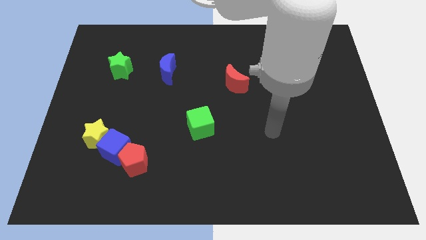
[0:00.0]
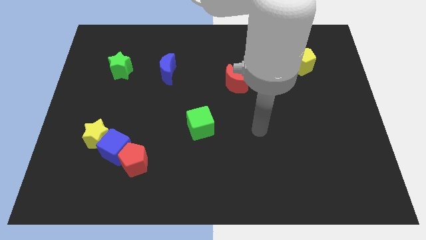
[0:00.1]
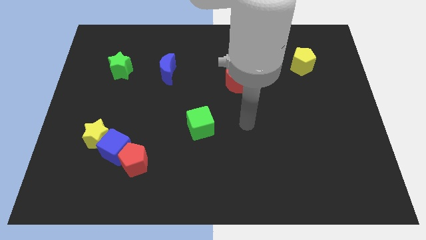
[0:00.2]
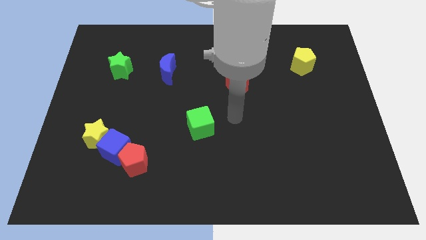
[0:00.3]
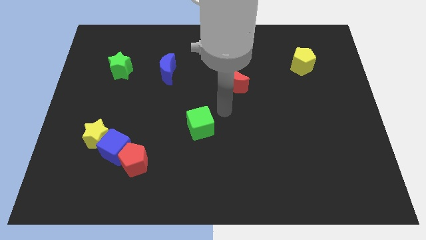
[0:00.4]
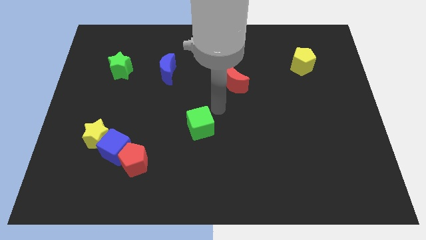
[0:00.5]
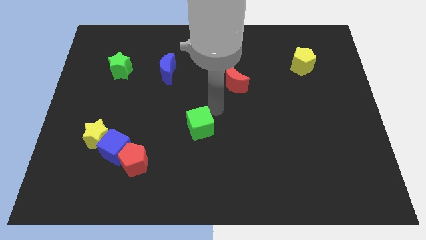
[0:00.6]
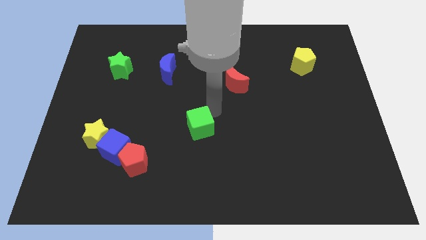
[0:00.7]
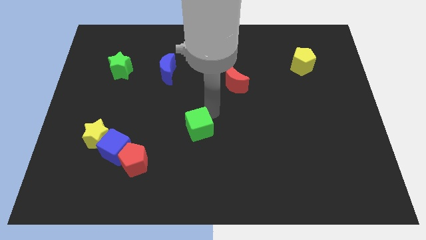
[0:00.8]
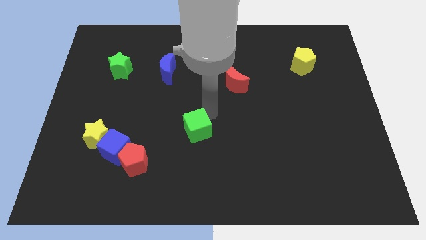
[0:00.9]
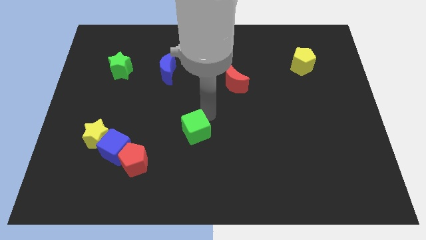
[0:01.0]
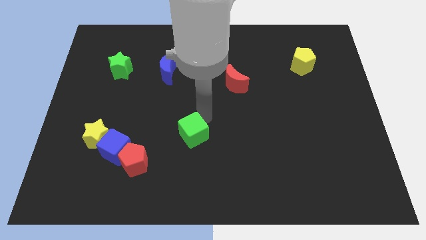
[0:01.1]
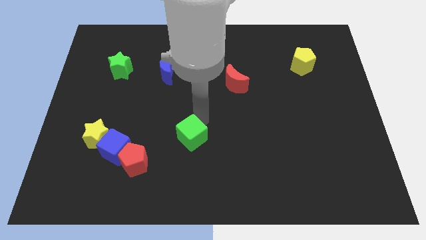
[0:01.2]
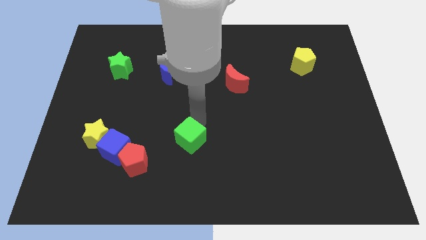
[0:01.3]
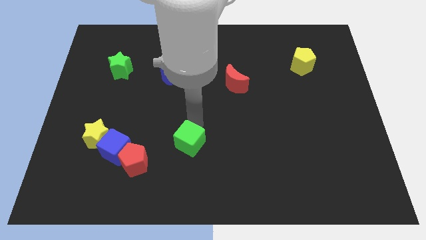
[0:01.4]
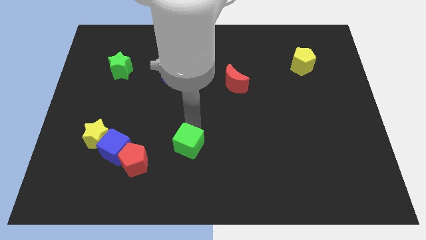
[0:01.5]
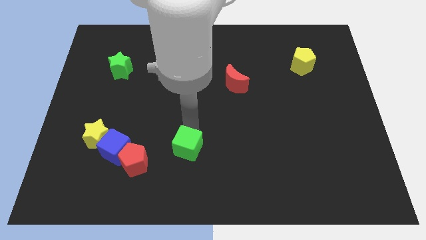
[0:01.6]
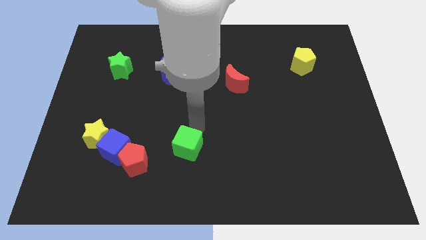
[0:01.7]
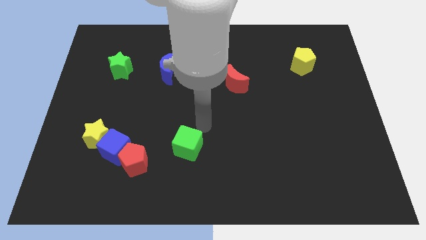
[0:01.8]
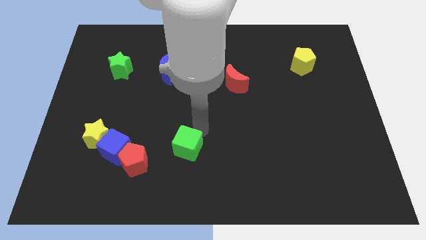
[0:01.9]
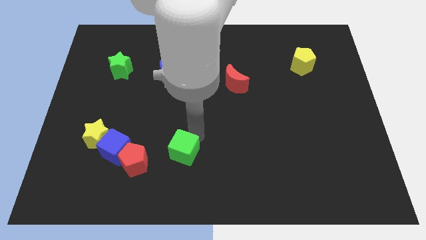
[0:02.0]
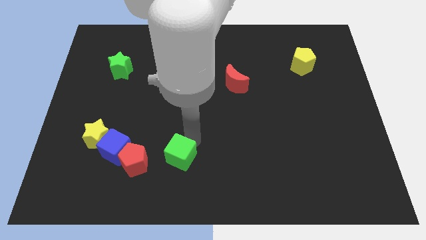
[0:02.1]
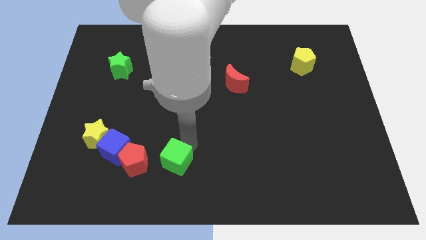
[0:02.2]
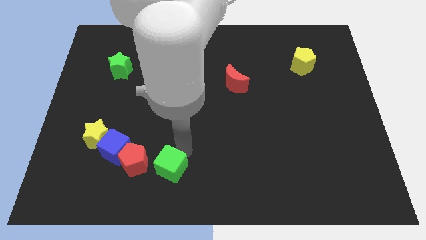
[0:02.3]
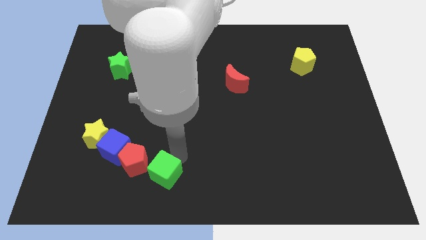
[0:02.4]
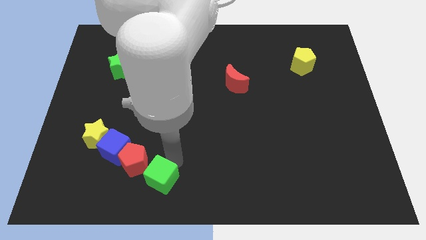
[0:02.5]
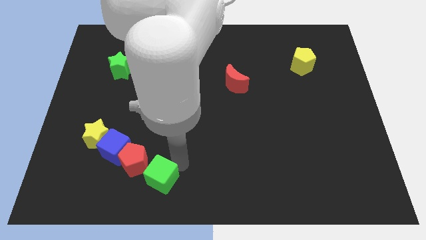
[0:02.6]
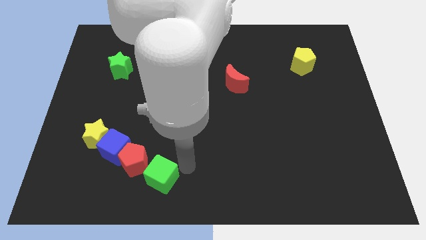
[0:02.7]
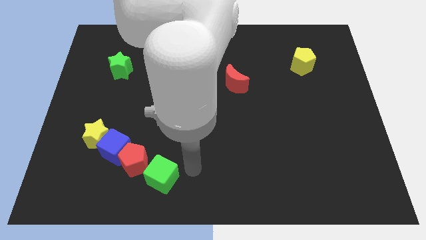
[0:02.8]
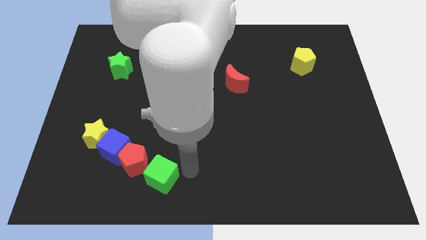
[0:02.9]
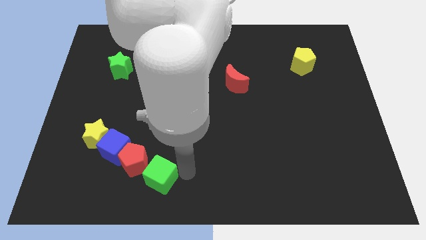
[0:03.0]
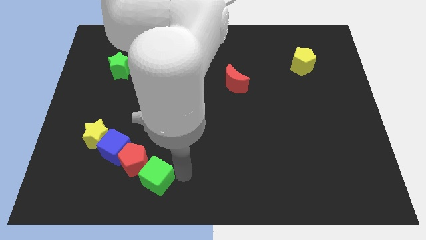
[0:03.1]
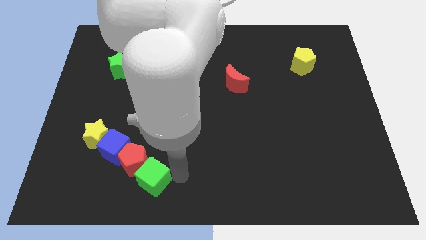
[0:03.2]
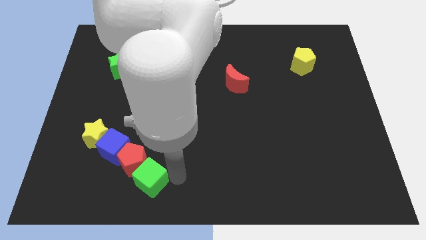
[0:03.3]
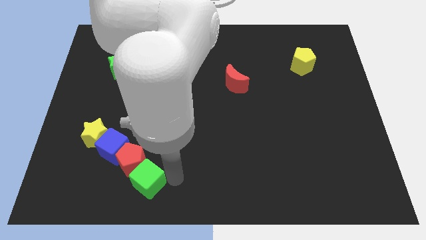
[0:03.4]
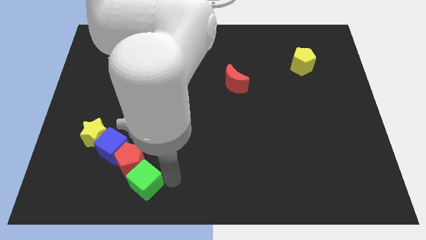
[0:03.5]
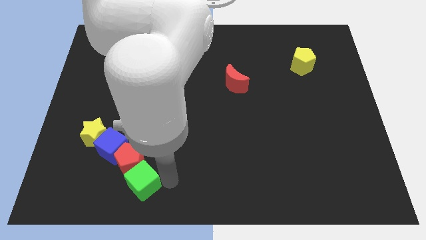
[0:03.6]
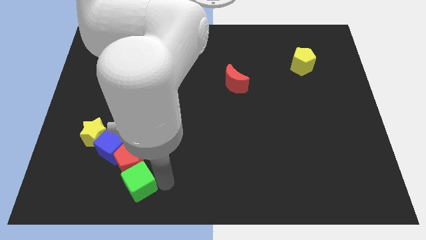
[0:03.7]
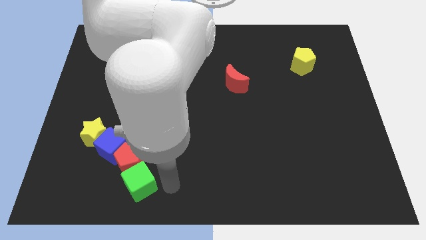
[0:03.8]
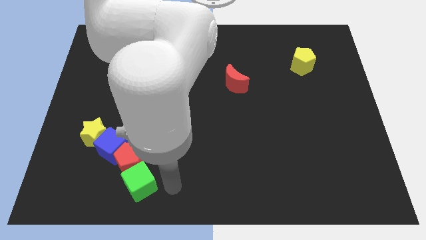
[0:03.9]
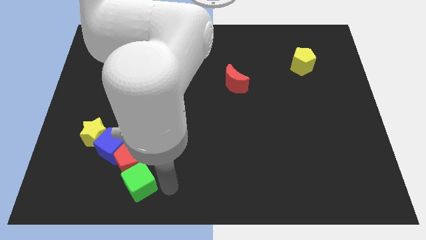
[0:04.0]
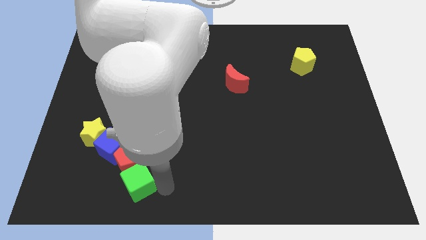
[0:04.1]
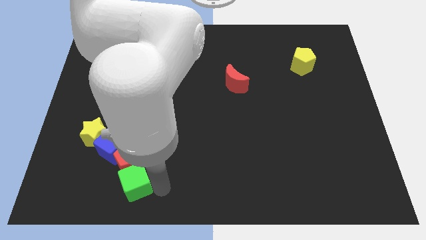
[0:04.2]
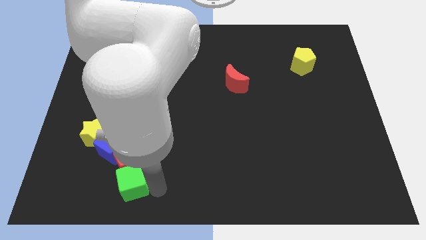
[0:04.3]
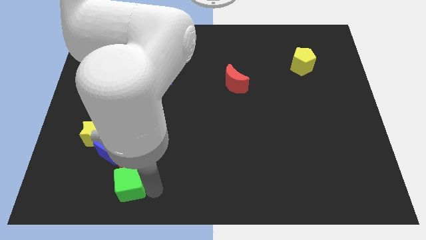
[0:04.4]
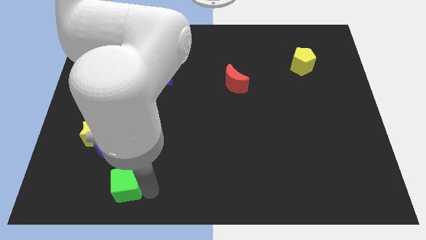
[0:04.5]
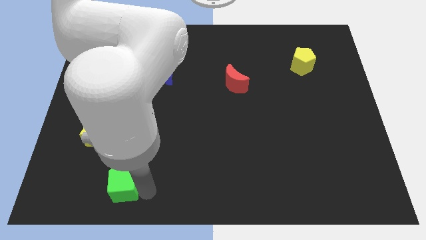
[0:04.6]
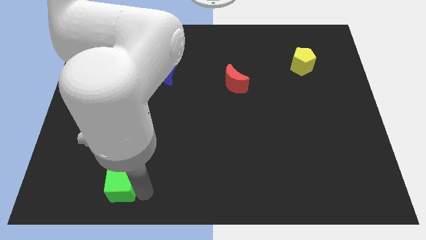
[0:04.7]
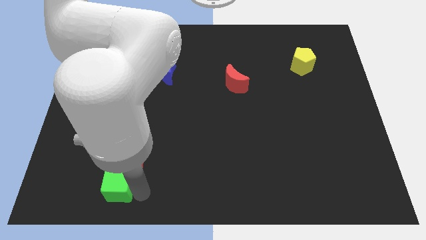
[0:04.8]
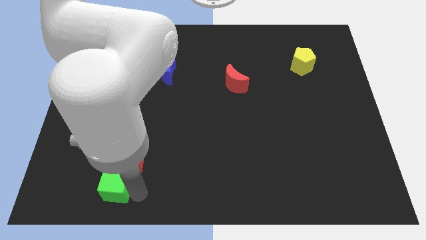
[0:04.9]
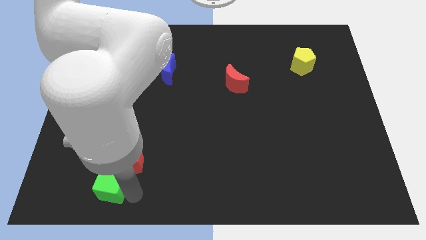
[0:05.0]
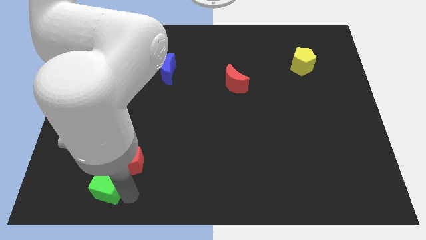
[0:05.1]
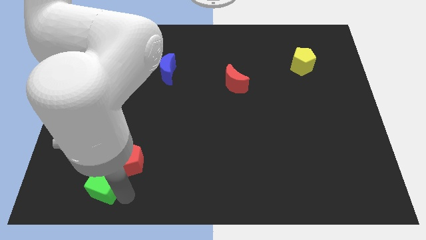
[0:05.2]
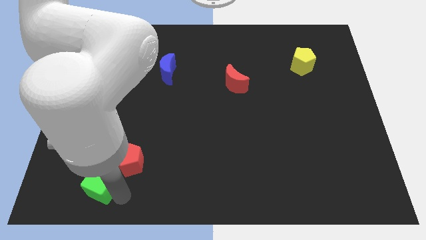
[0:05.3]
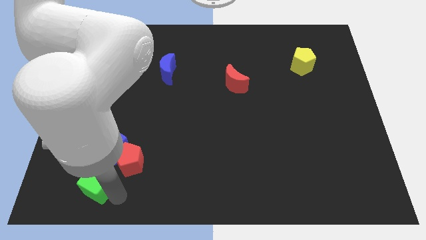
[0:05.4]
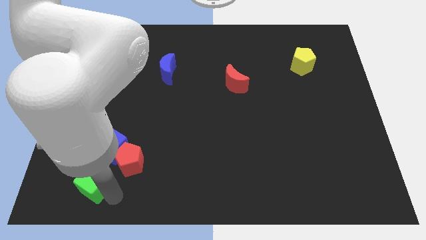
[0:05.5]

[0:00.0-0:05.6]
move the green cube to the bottom left side of the blue cube

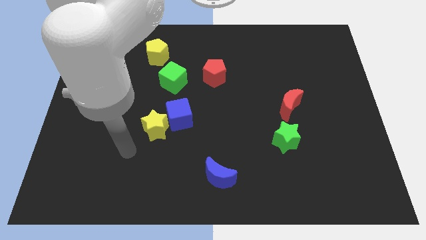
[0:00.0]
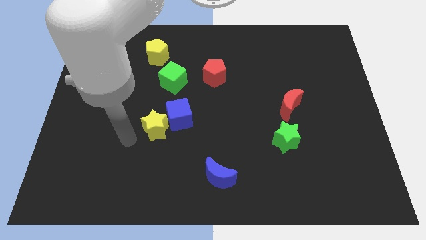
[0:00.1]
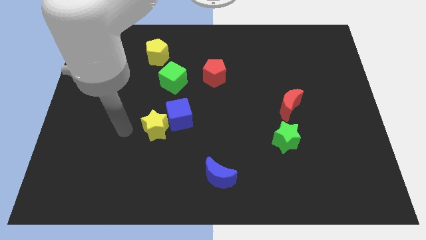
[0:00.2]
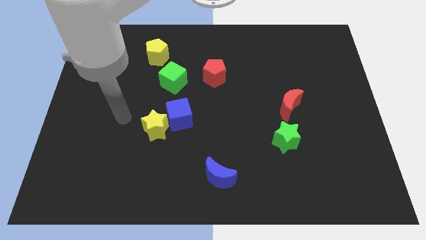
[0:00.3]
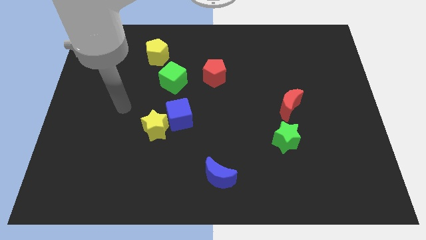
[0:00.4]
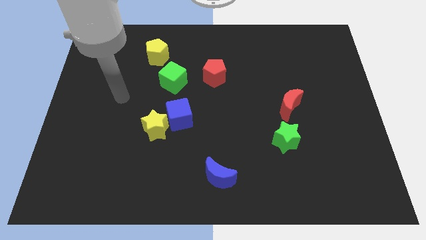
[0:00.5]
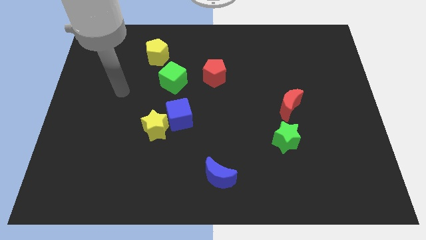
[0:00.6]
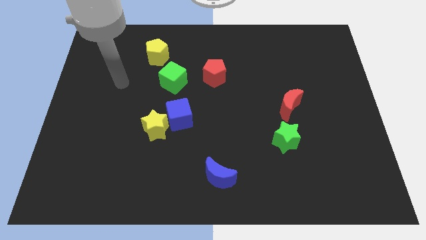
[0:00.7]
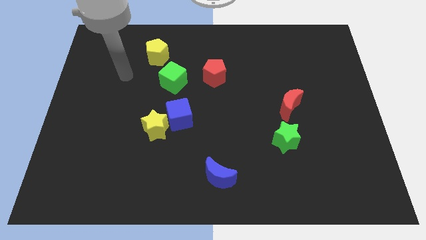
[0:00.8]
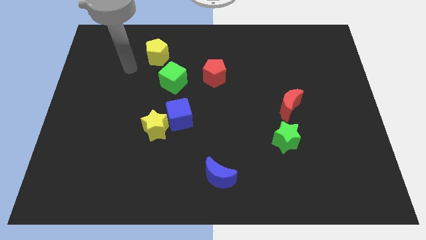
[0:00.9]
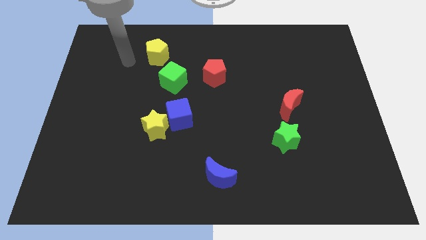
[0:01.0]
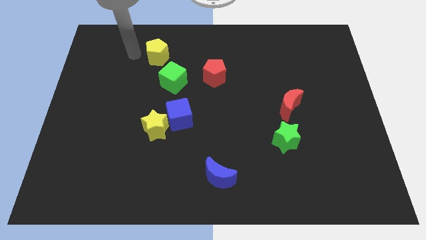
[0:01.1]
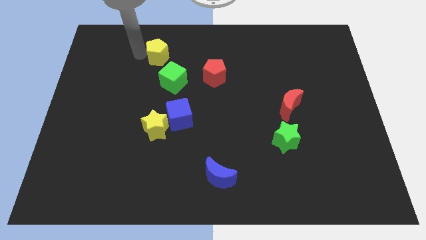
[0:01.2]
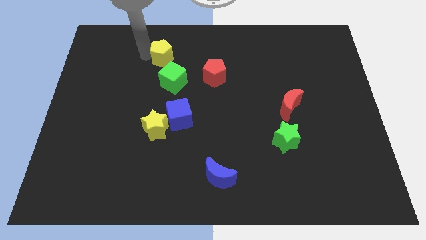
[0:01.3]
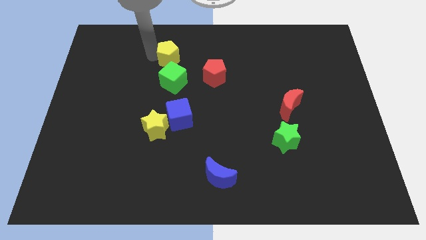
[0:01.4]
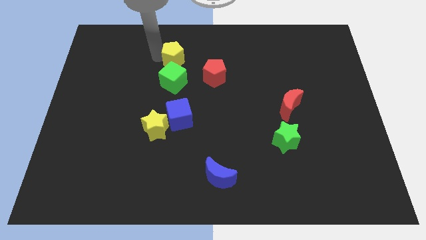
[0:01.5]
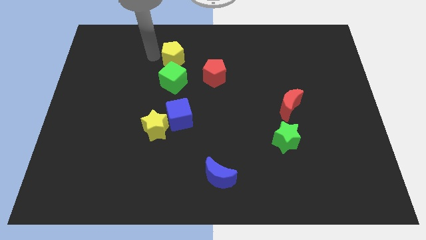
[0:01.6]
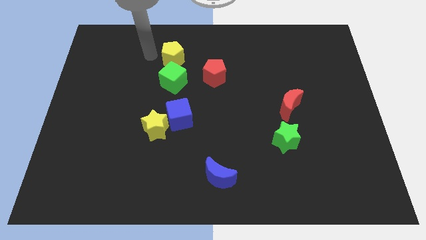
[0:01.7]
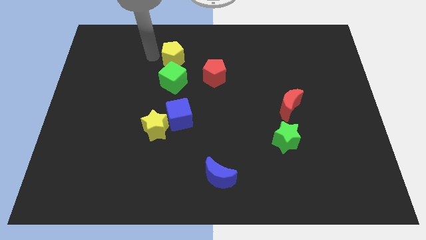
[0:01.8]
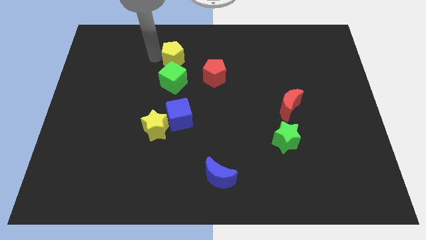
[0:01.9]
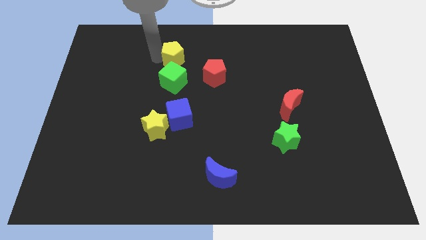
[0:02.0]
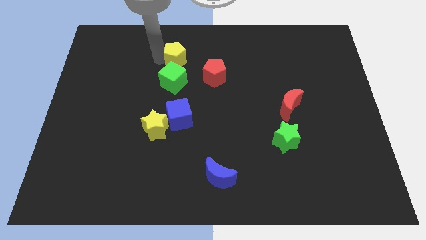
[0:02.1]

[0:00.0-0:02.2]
move the yellow pentagon to the top left of the red pentagon

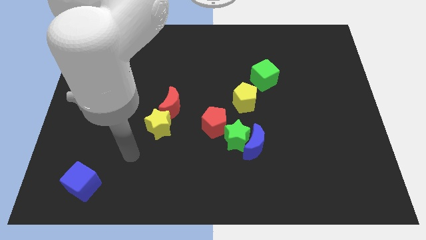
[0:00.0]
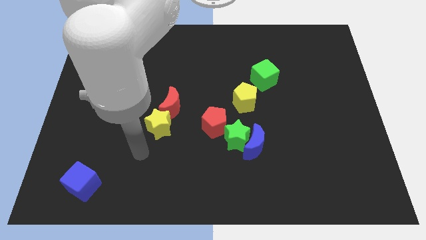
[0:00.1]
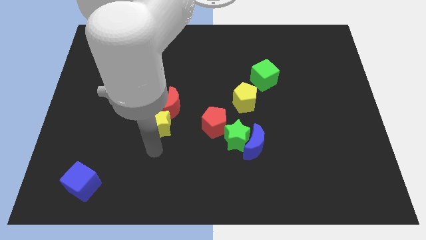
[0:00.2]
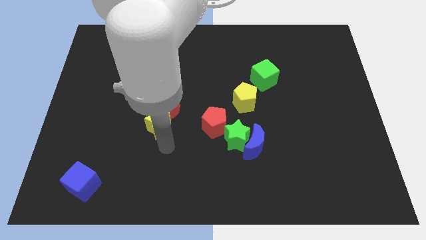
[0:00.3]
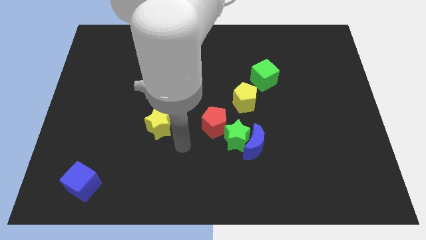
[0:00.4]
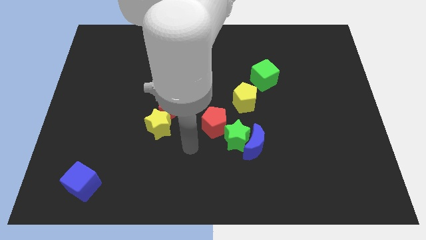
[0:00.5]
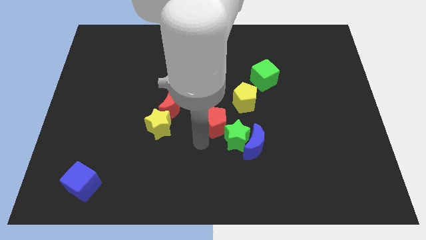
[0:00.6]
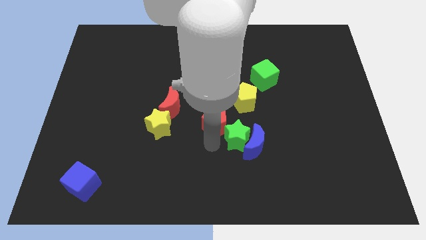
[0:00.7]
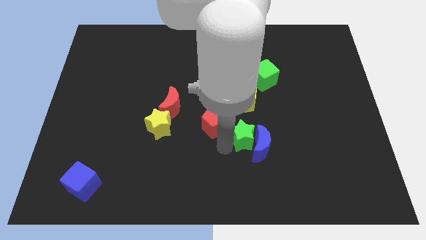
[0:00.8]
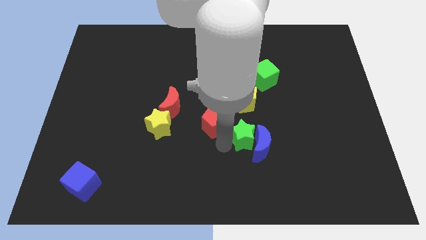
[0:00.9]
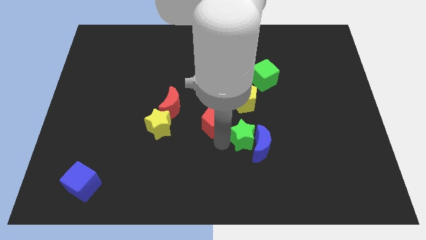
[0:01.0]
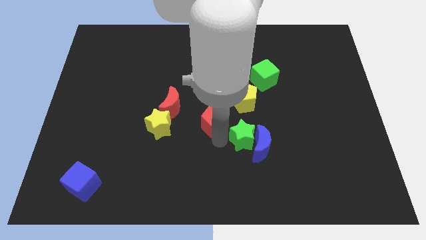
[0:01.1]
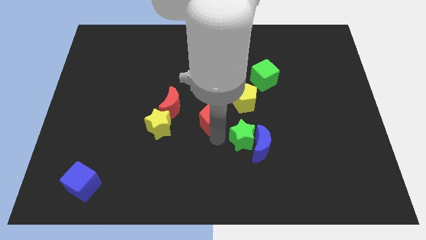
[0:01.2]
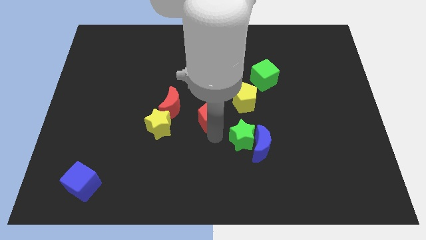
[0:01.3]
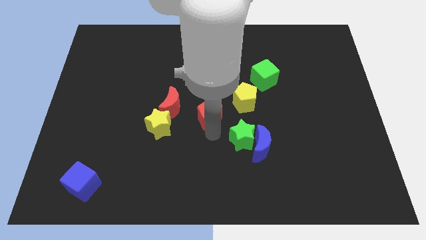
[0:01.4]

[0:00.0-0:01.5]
push the red pentagon just left of the yellow pentagon
